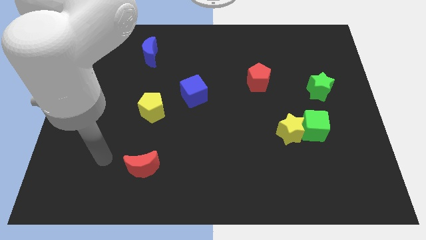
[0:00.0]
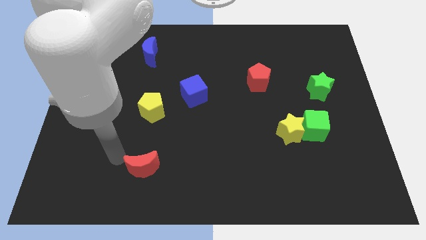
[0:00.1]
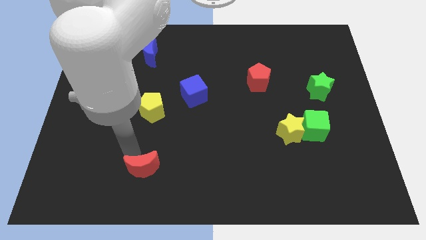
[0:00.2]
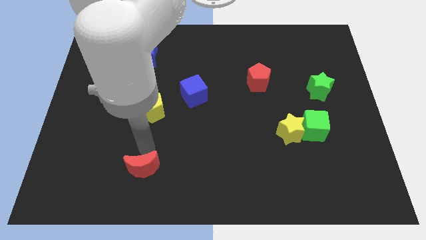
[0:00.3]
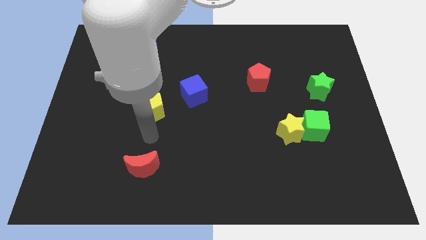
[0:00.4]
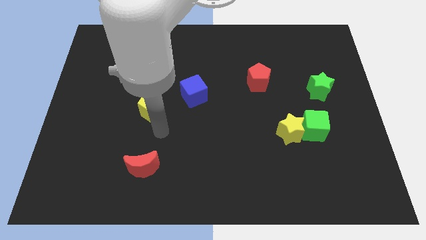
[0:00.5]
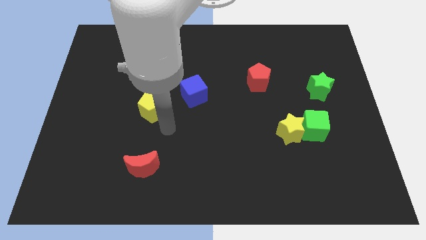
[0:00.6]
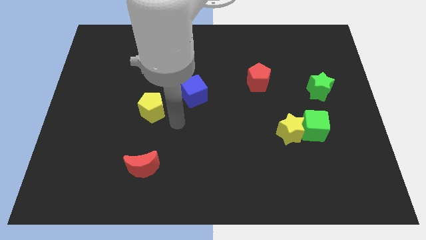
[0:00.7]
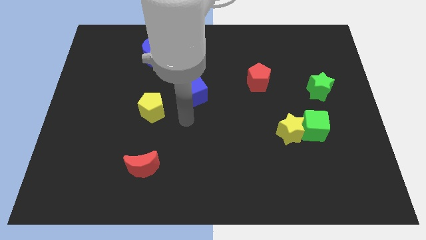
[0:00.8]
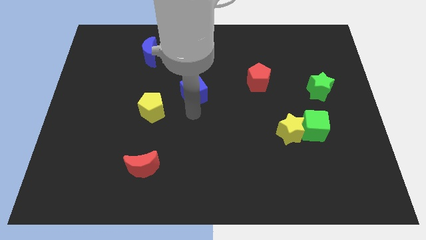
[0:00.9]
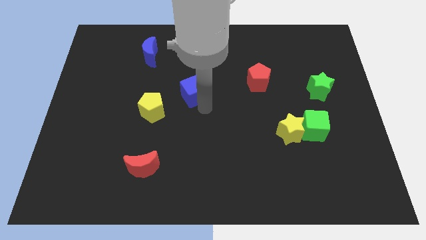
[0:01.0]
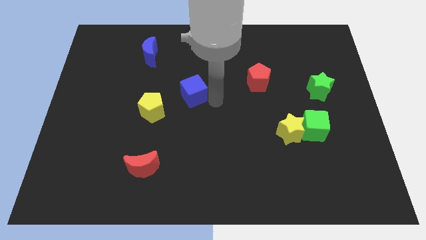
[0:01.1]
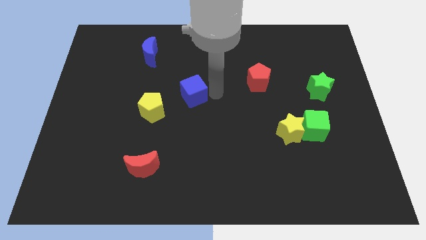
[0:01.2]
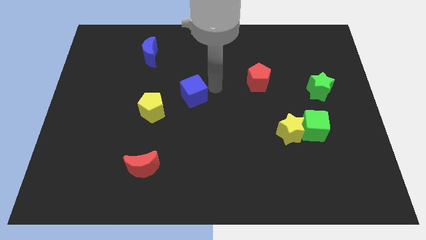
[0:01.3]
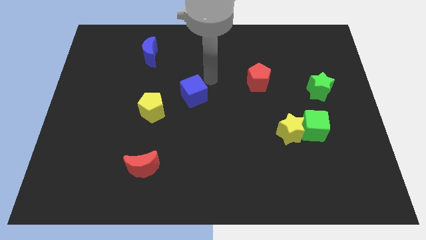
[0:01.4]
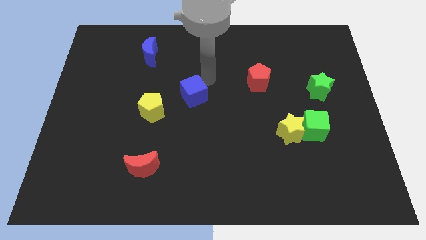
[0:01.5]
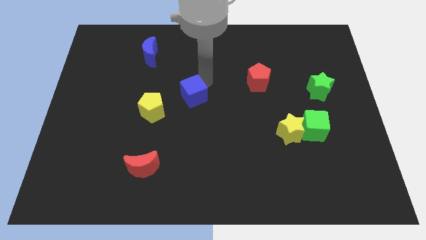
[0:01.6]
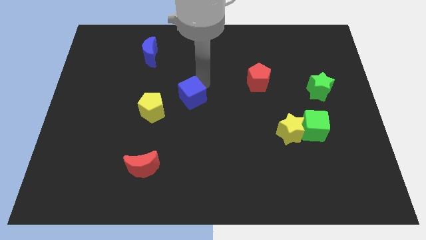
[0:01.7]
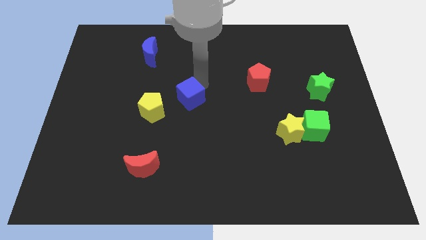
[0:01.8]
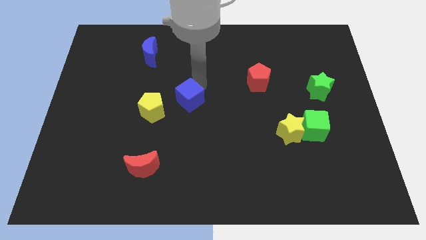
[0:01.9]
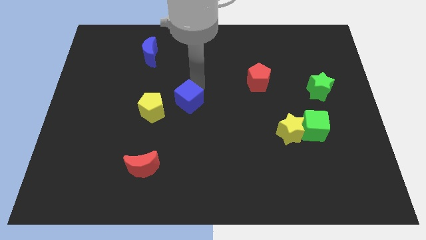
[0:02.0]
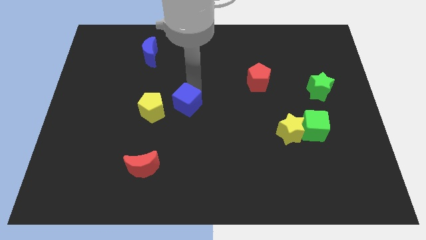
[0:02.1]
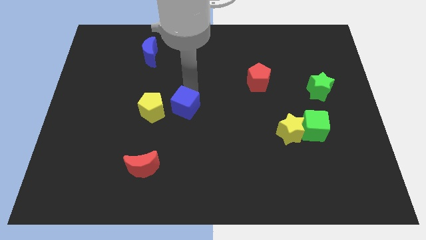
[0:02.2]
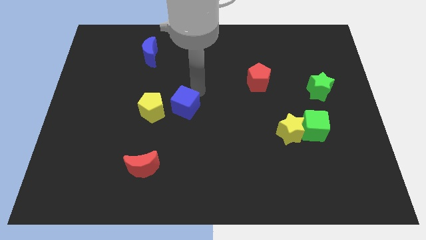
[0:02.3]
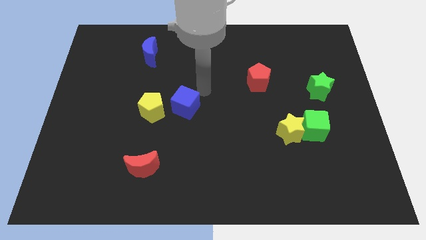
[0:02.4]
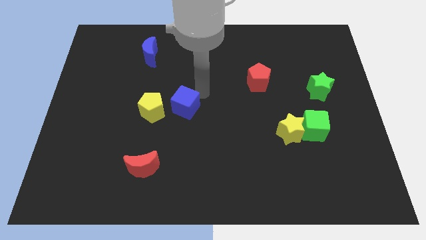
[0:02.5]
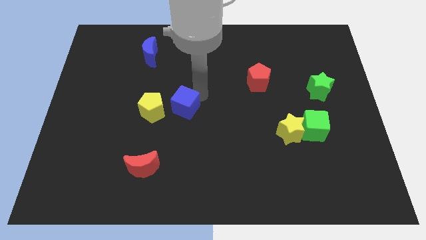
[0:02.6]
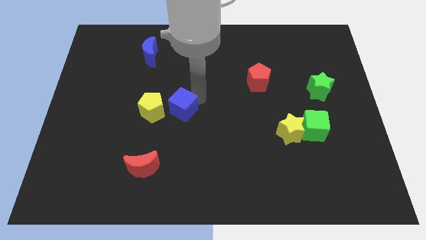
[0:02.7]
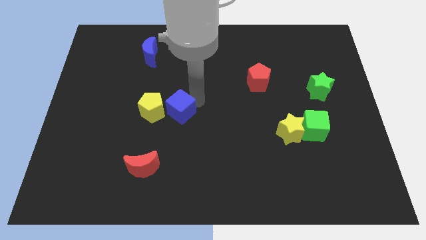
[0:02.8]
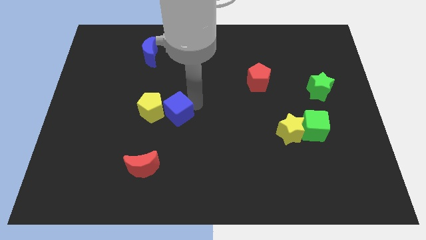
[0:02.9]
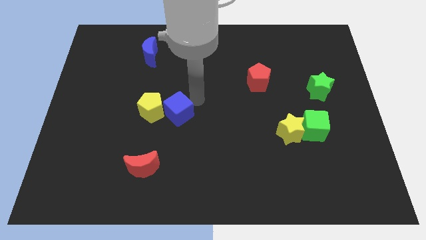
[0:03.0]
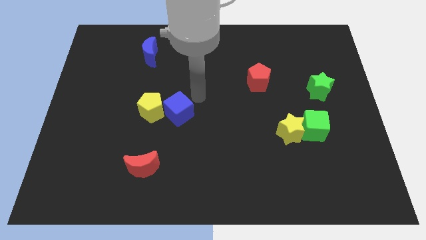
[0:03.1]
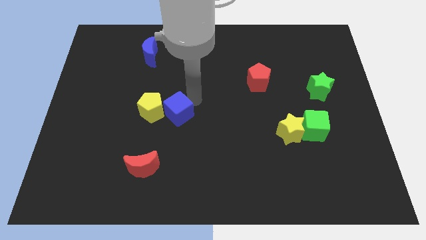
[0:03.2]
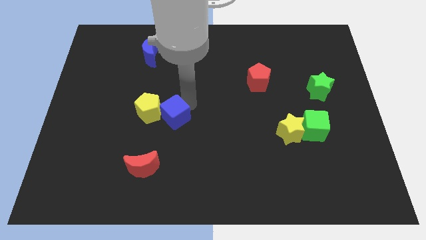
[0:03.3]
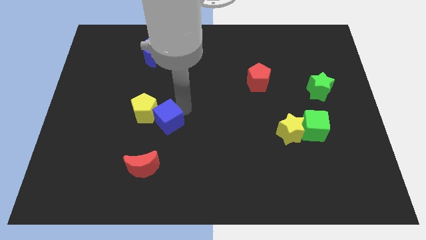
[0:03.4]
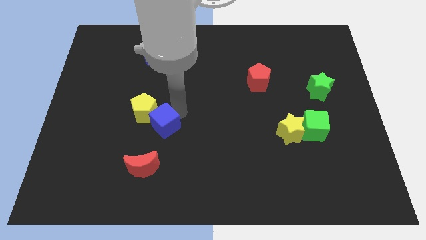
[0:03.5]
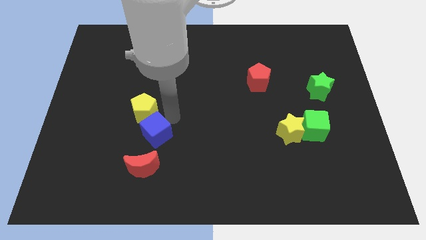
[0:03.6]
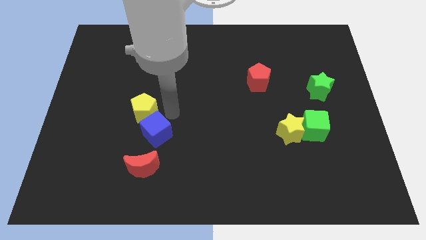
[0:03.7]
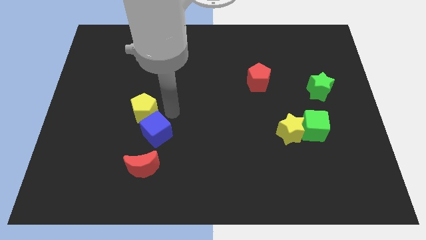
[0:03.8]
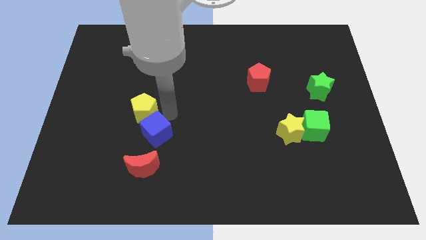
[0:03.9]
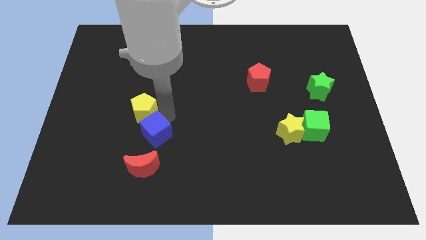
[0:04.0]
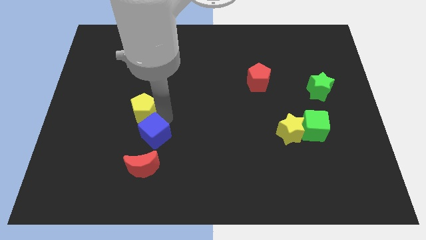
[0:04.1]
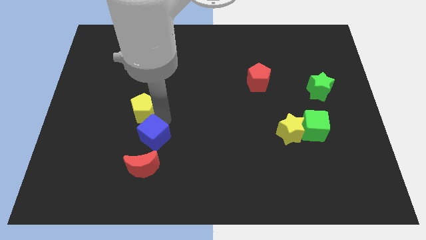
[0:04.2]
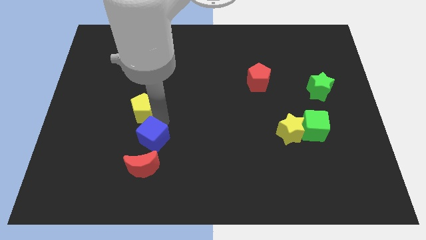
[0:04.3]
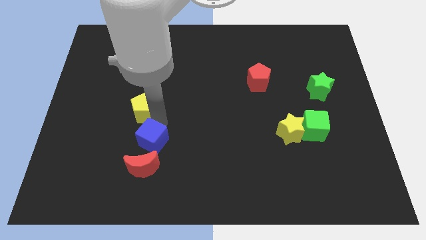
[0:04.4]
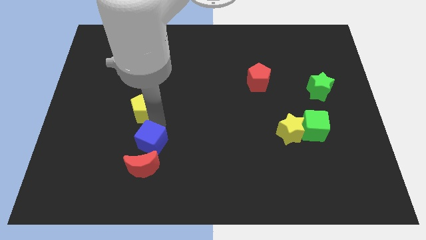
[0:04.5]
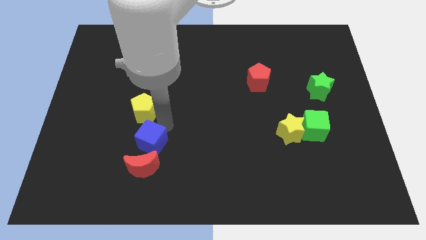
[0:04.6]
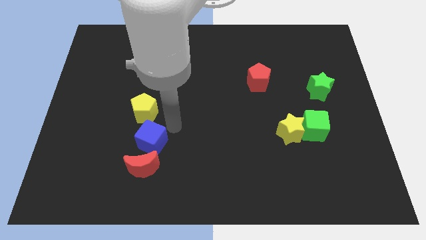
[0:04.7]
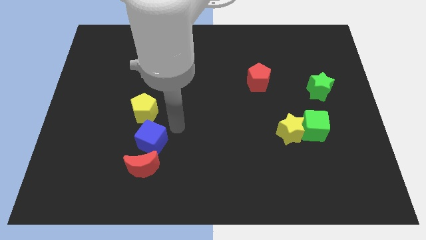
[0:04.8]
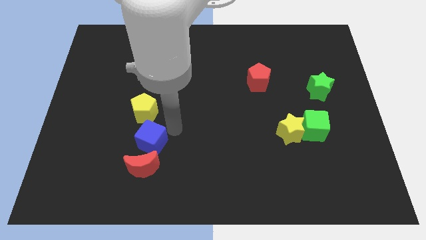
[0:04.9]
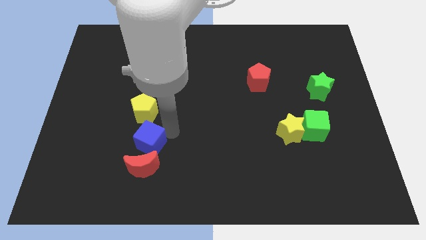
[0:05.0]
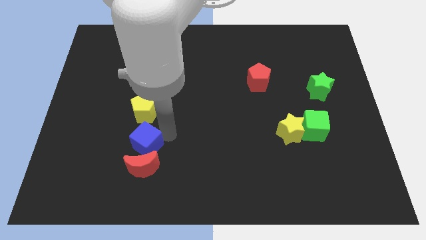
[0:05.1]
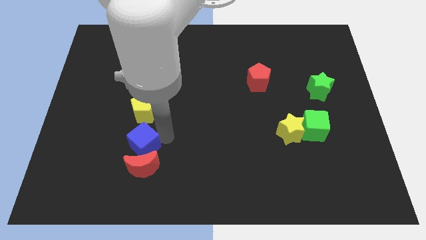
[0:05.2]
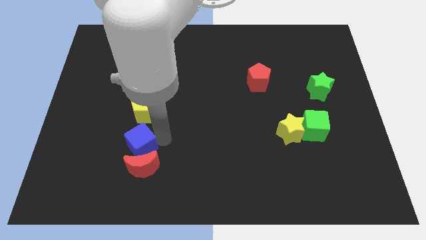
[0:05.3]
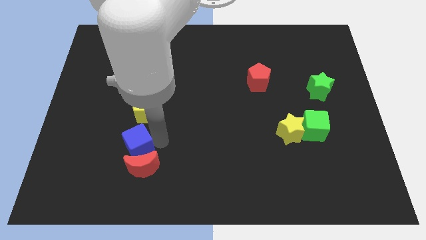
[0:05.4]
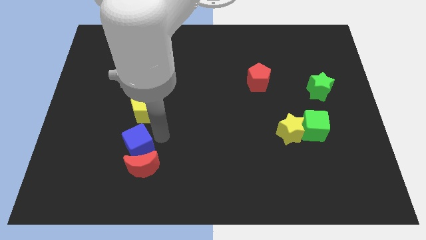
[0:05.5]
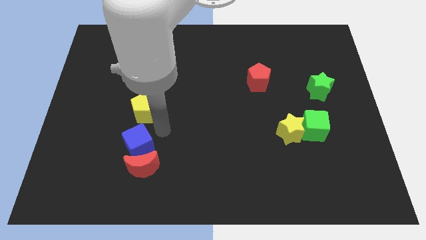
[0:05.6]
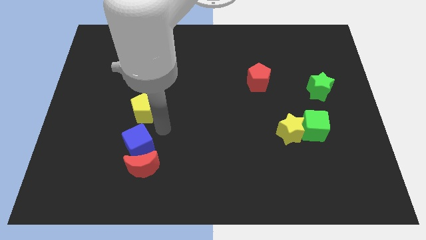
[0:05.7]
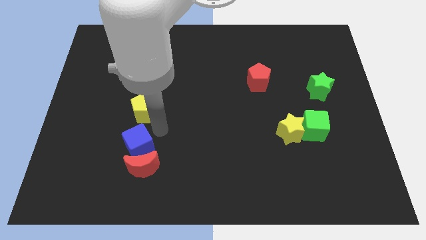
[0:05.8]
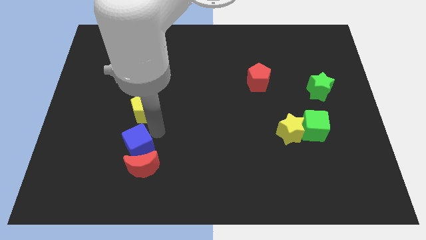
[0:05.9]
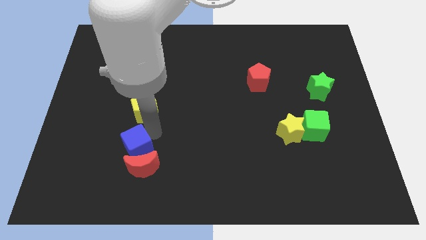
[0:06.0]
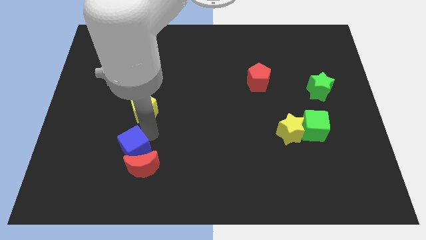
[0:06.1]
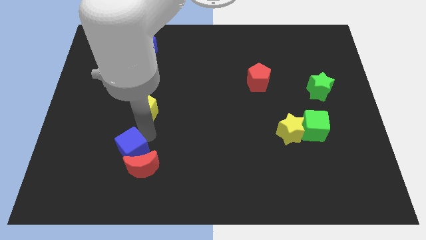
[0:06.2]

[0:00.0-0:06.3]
slide the blue cube down and left diagonally

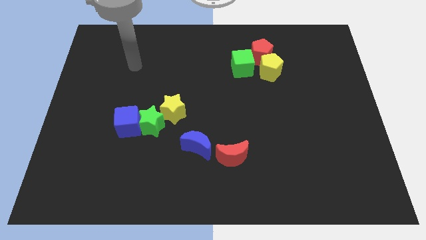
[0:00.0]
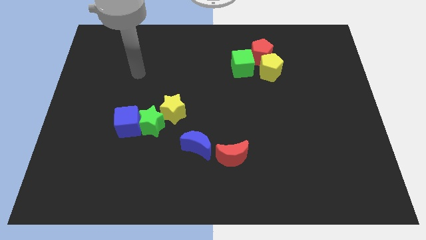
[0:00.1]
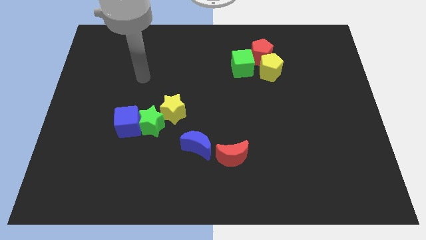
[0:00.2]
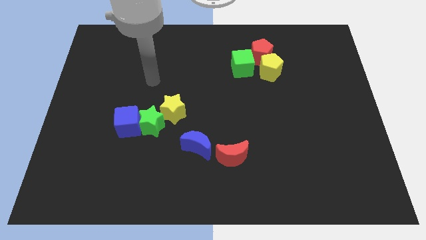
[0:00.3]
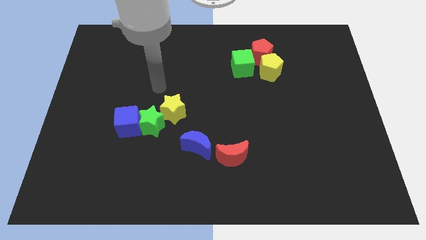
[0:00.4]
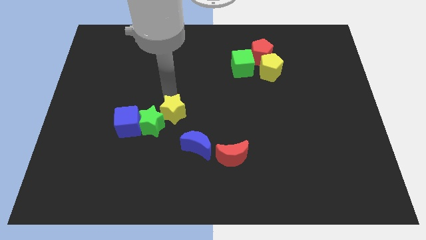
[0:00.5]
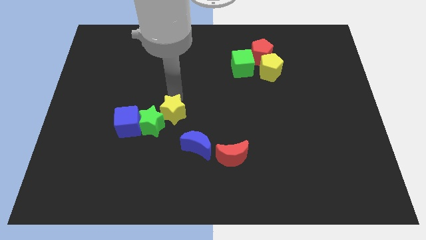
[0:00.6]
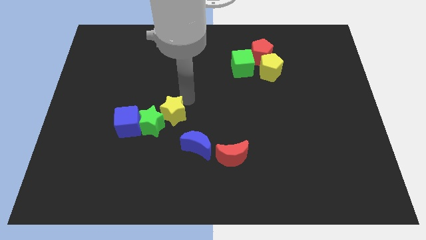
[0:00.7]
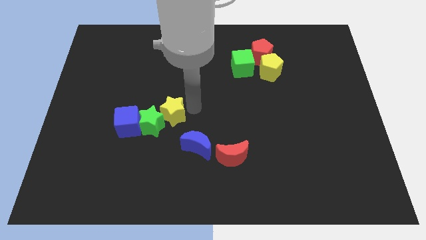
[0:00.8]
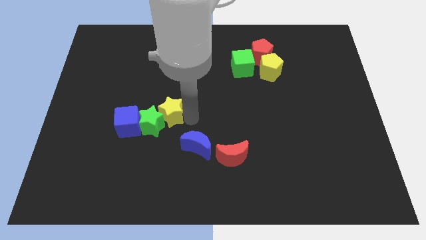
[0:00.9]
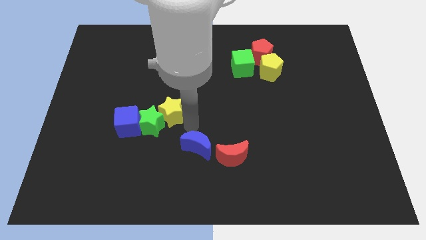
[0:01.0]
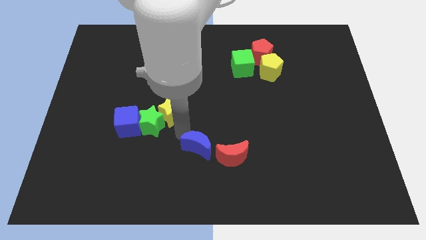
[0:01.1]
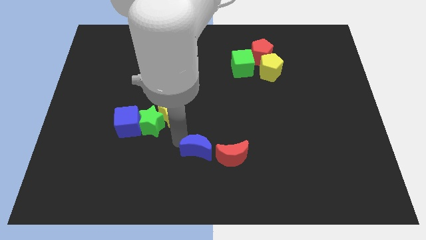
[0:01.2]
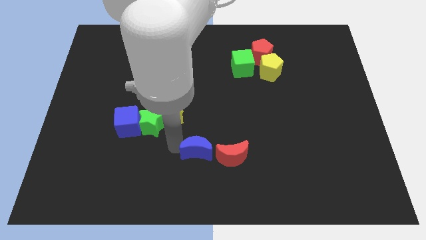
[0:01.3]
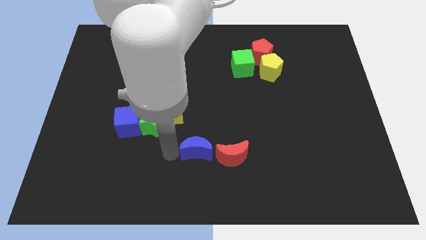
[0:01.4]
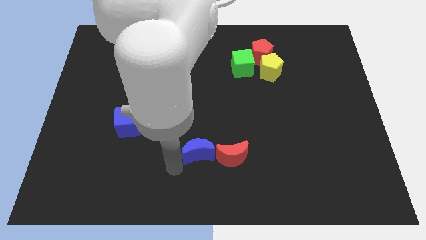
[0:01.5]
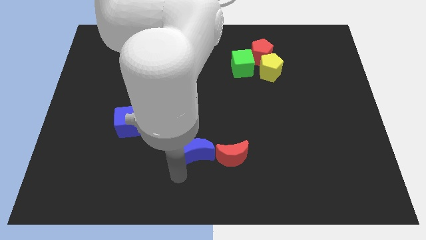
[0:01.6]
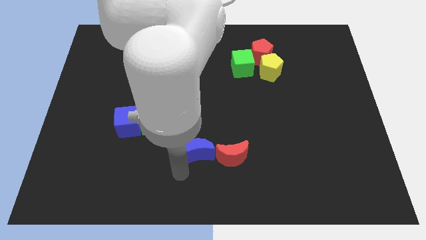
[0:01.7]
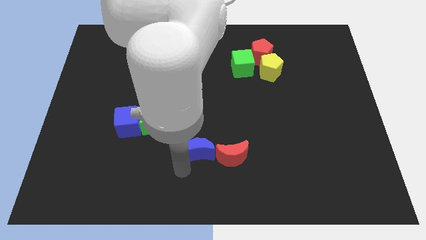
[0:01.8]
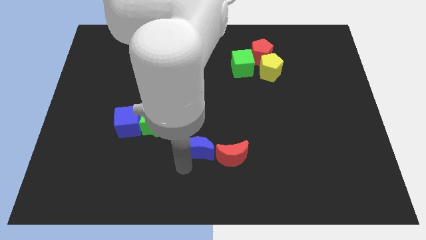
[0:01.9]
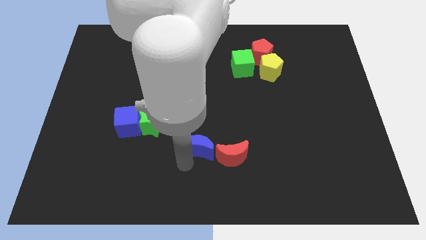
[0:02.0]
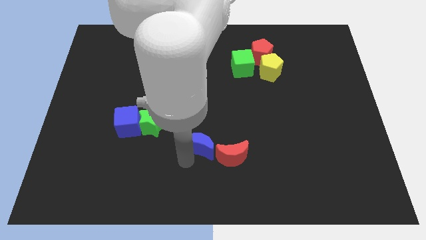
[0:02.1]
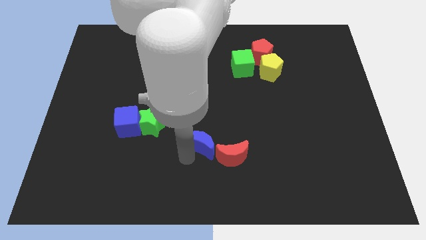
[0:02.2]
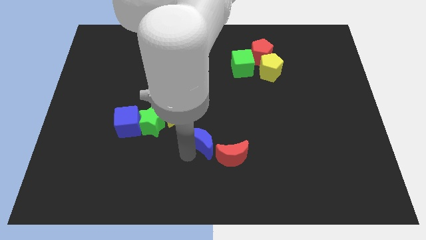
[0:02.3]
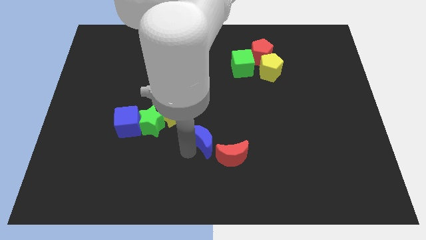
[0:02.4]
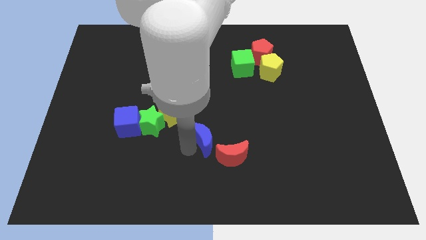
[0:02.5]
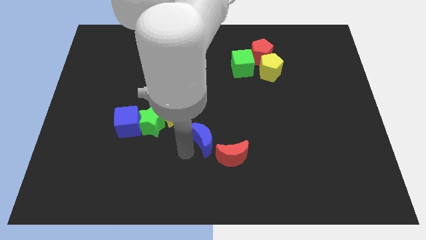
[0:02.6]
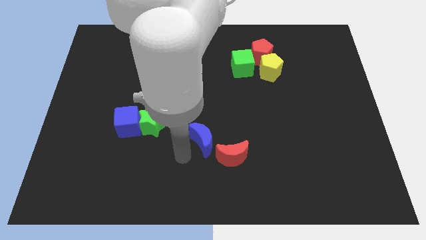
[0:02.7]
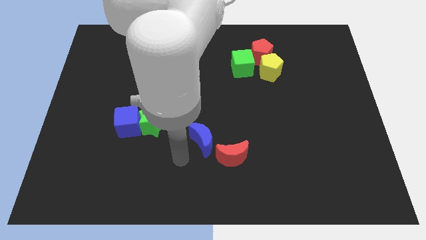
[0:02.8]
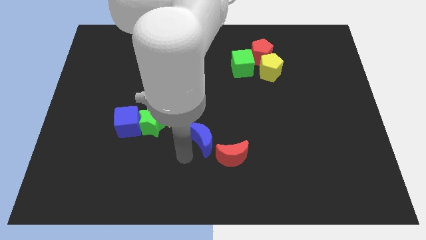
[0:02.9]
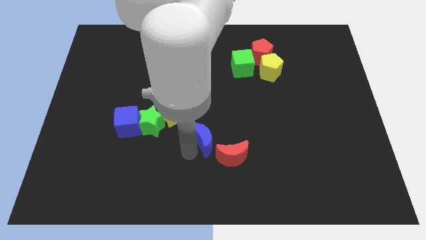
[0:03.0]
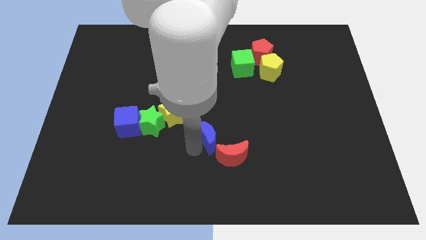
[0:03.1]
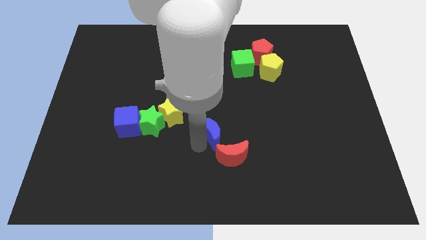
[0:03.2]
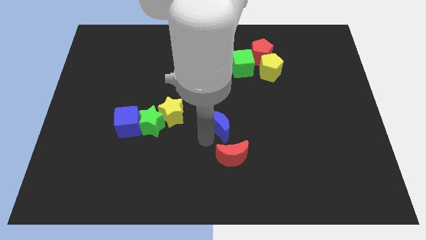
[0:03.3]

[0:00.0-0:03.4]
push the blue moon up and to the right a little
